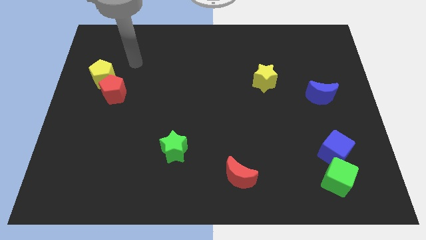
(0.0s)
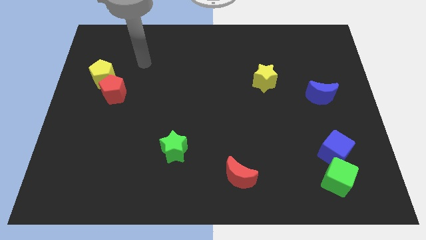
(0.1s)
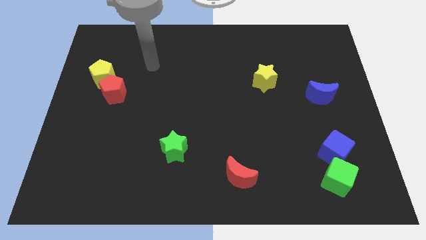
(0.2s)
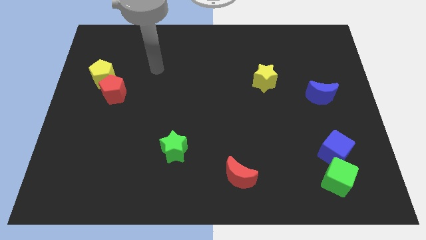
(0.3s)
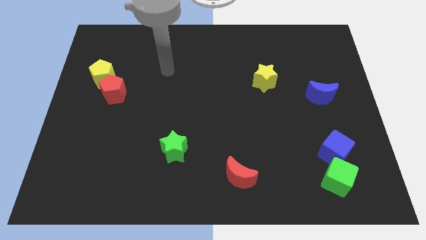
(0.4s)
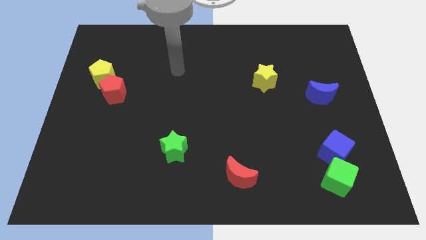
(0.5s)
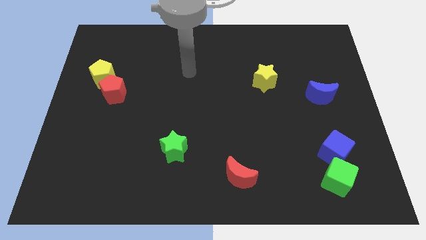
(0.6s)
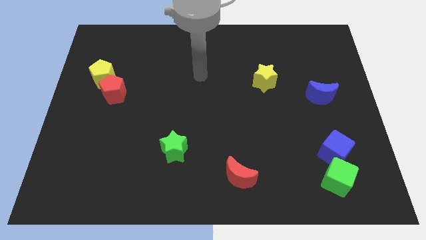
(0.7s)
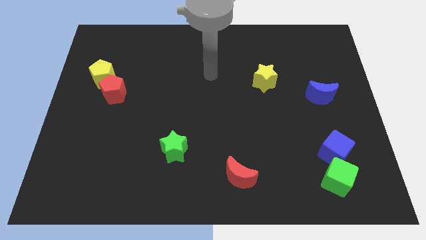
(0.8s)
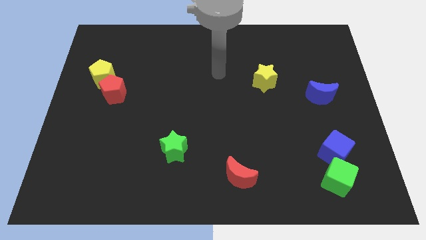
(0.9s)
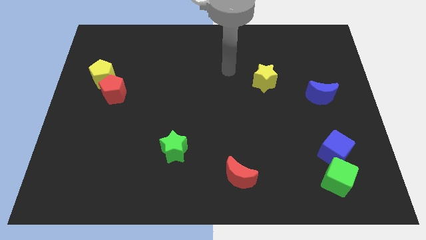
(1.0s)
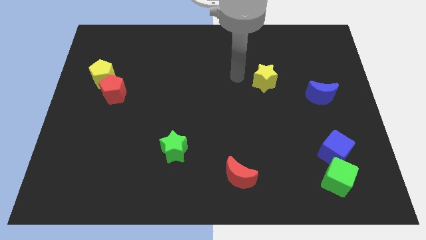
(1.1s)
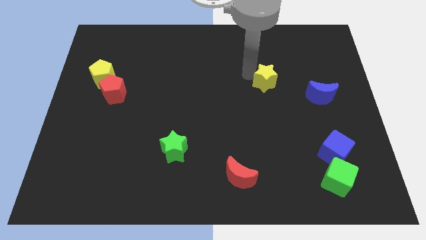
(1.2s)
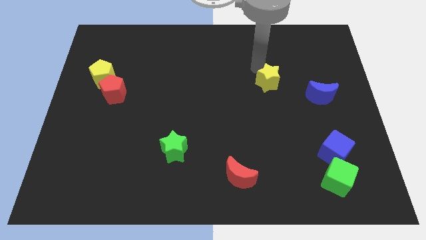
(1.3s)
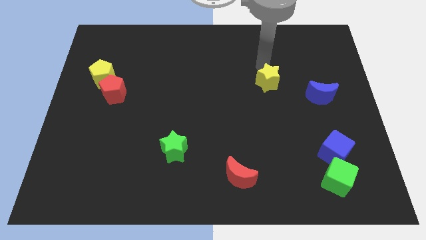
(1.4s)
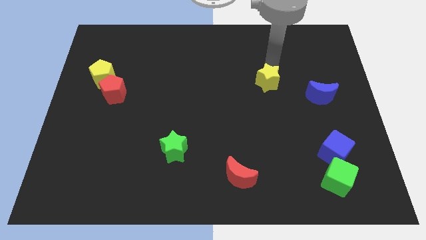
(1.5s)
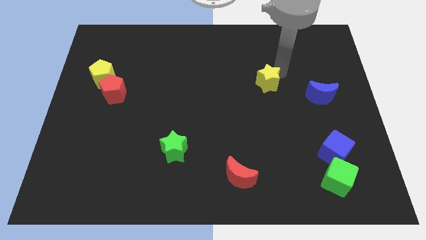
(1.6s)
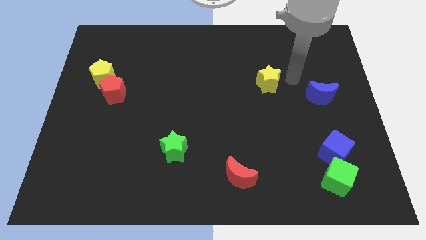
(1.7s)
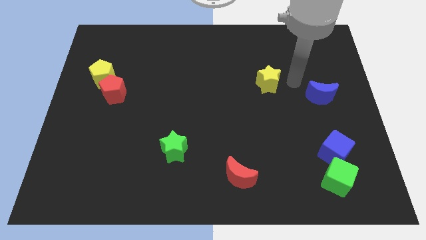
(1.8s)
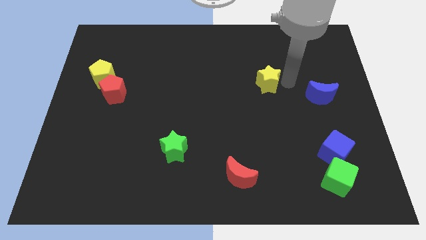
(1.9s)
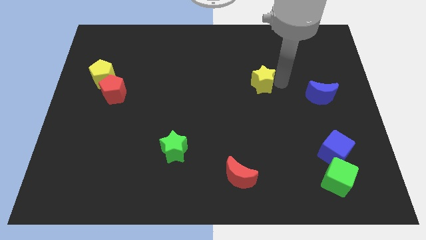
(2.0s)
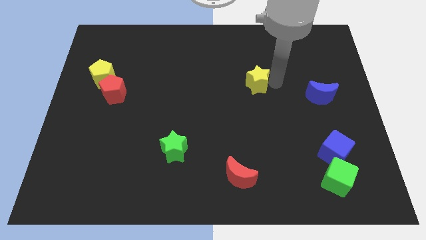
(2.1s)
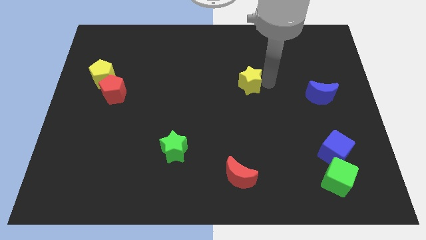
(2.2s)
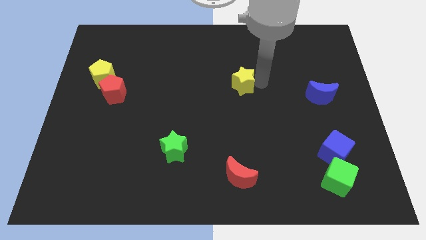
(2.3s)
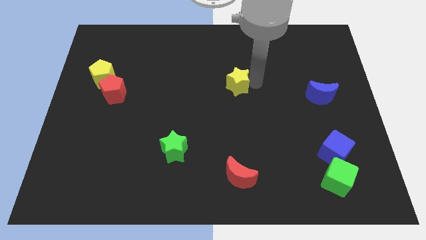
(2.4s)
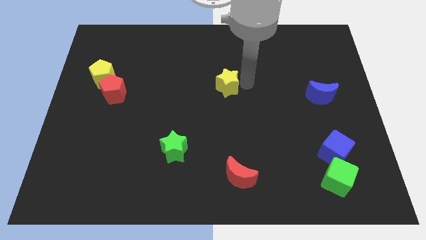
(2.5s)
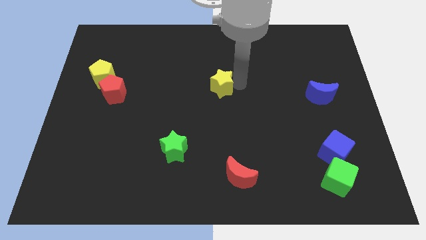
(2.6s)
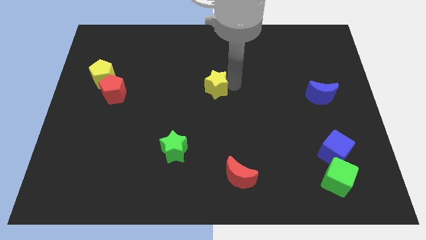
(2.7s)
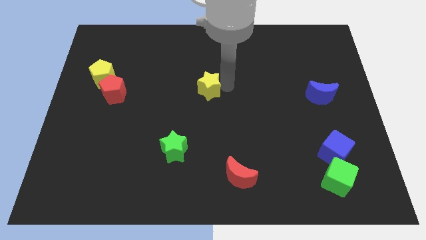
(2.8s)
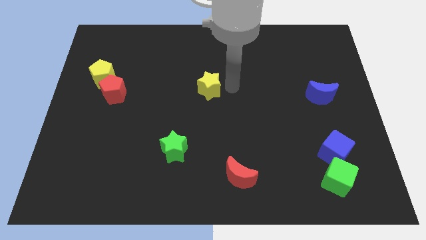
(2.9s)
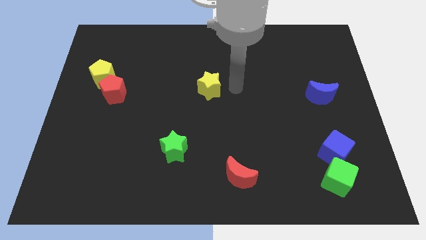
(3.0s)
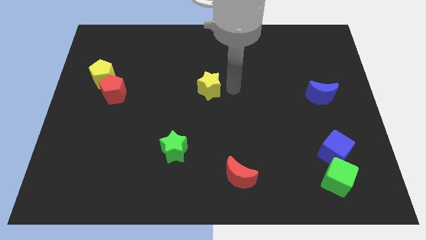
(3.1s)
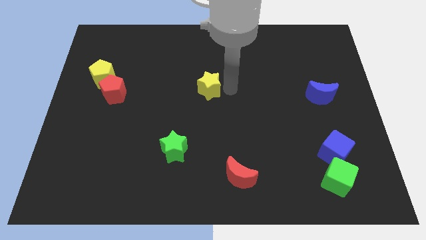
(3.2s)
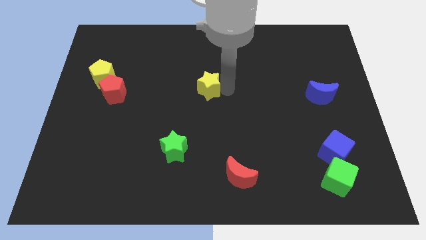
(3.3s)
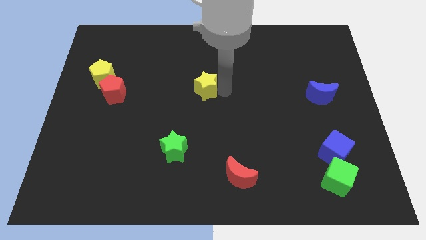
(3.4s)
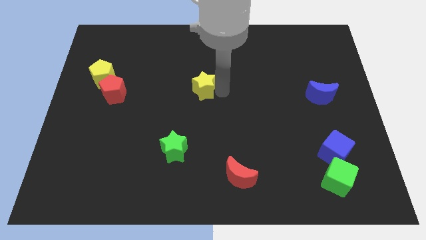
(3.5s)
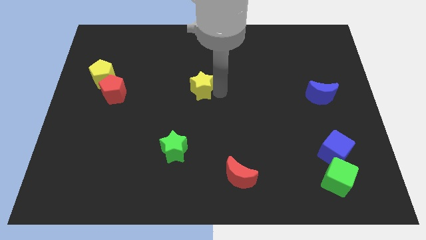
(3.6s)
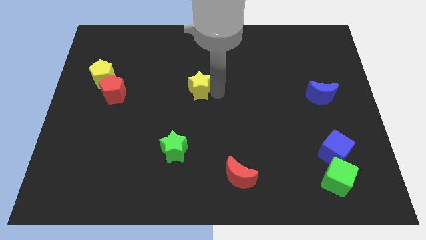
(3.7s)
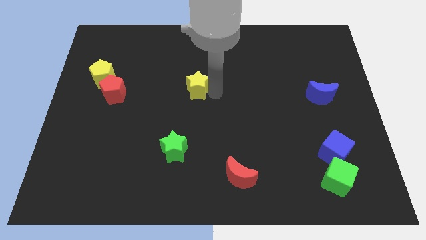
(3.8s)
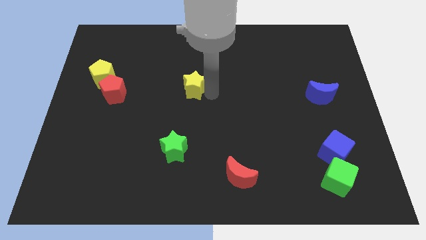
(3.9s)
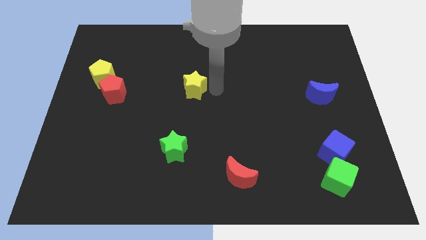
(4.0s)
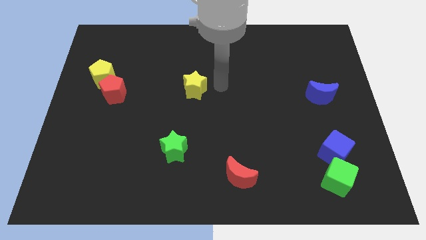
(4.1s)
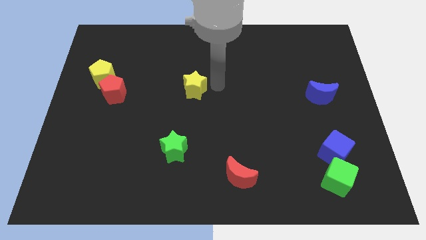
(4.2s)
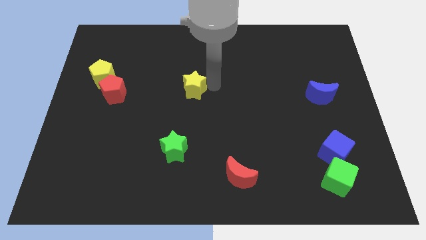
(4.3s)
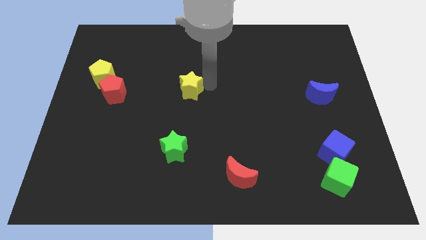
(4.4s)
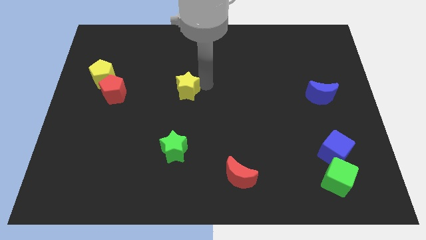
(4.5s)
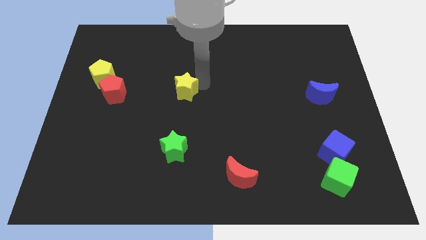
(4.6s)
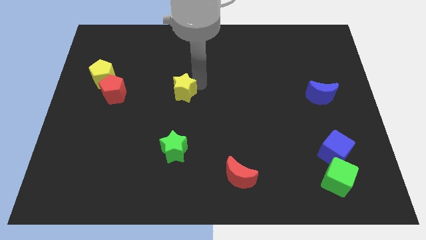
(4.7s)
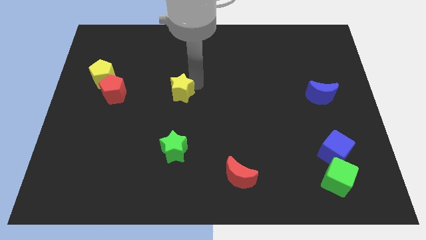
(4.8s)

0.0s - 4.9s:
push the yellow star to the right side of the red pentagon

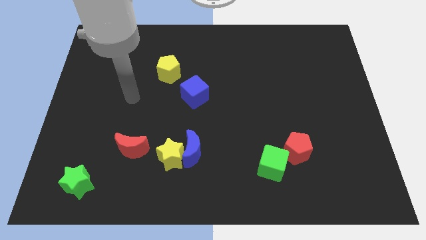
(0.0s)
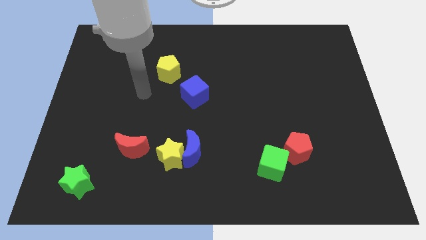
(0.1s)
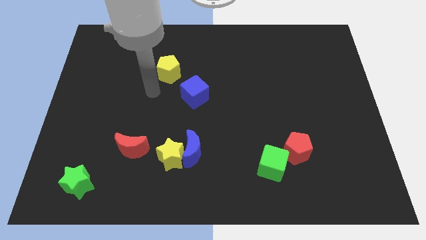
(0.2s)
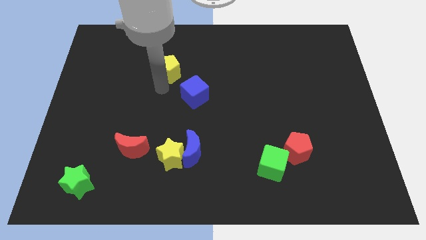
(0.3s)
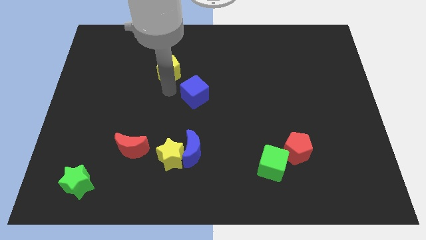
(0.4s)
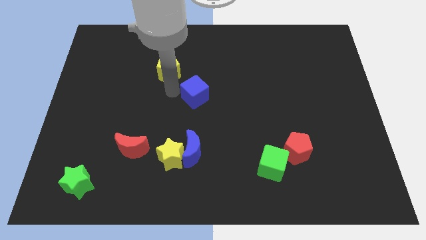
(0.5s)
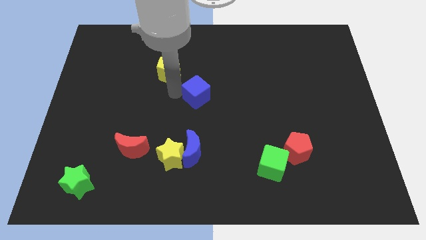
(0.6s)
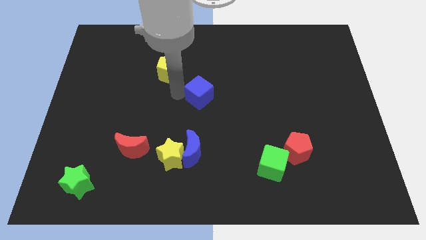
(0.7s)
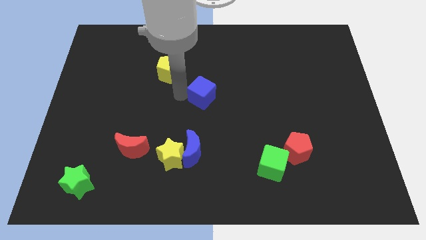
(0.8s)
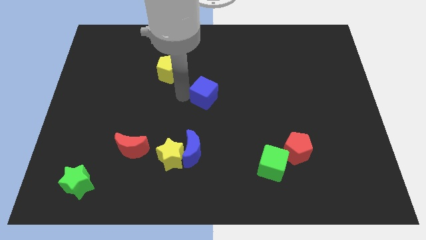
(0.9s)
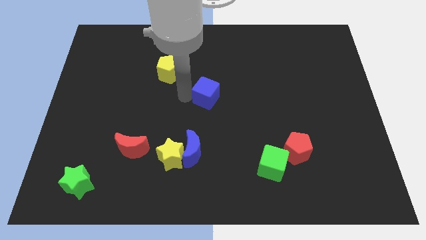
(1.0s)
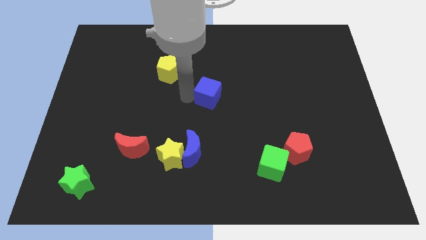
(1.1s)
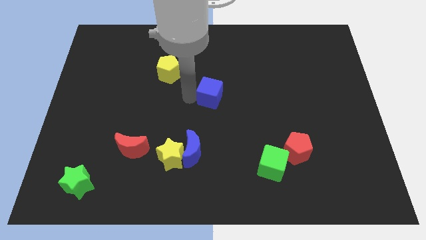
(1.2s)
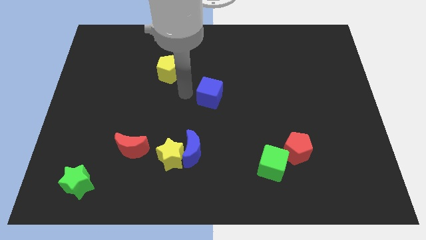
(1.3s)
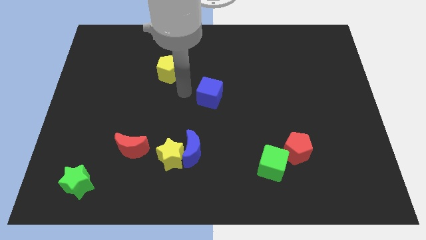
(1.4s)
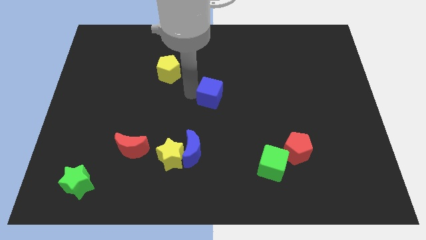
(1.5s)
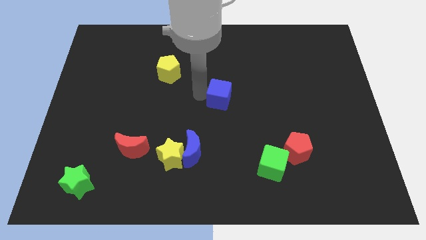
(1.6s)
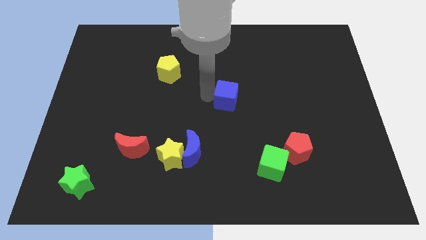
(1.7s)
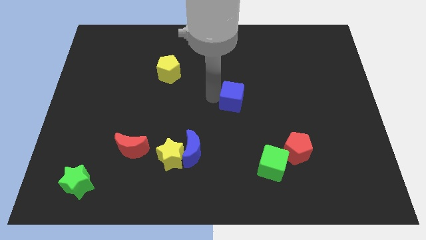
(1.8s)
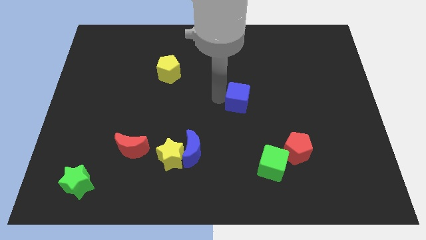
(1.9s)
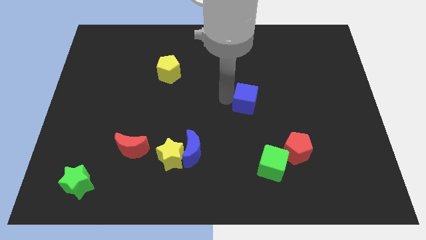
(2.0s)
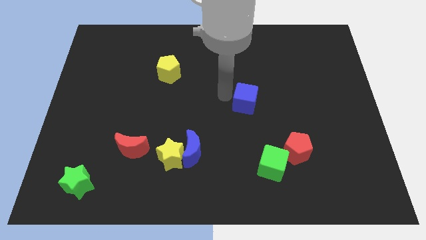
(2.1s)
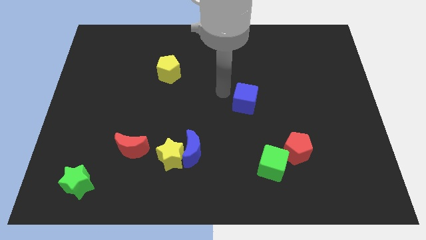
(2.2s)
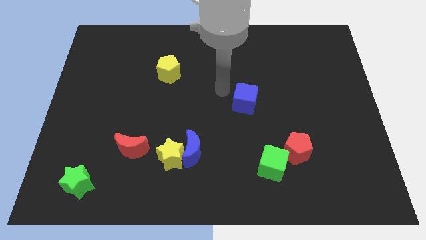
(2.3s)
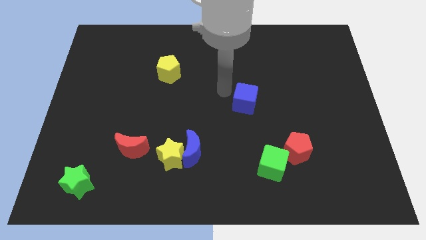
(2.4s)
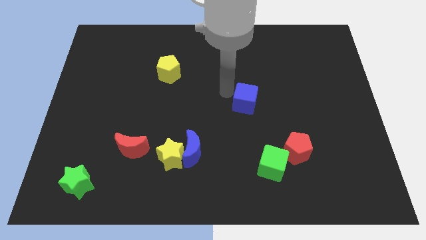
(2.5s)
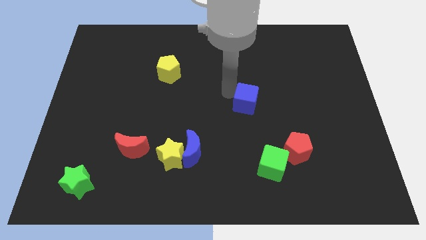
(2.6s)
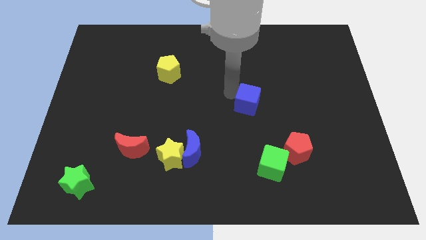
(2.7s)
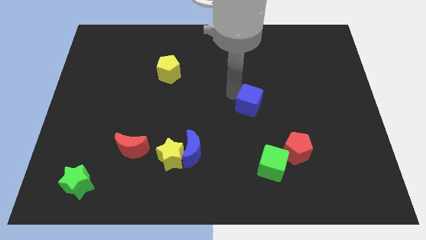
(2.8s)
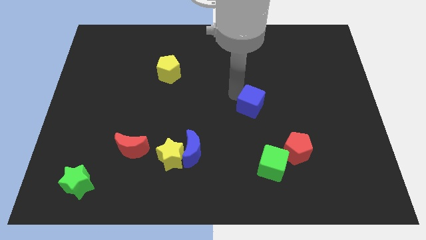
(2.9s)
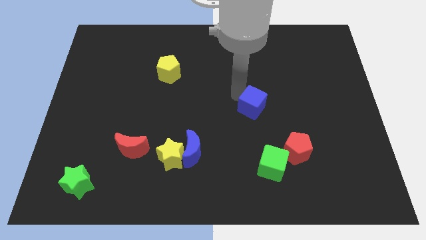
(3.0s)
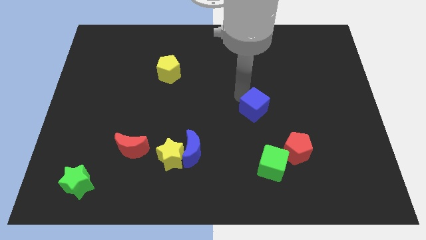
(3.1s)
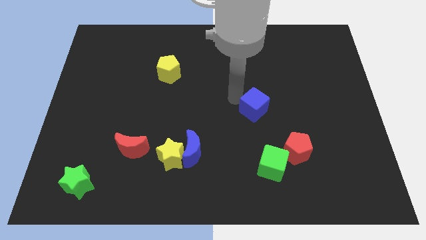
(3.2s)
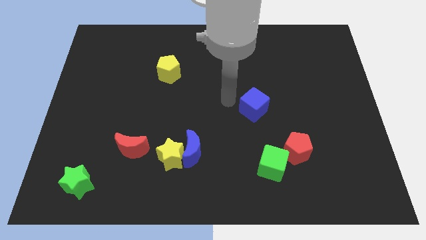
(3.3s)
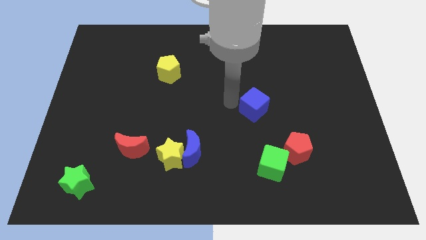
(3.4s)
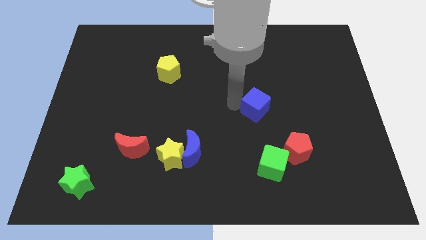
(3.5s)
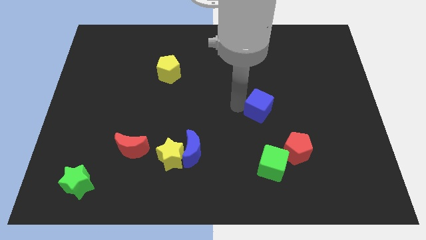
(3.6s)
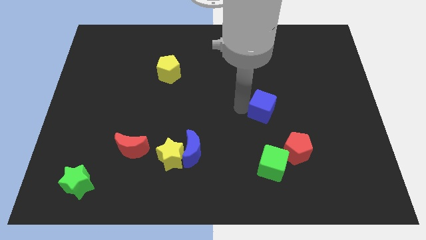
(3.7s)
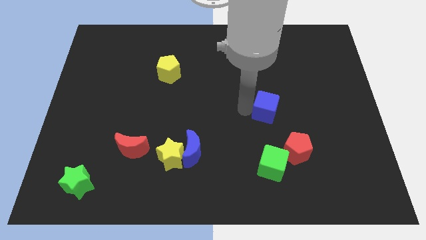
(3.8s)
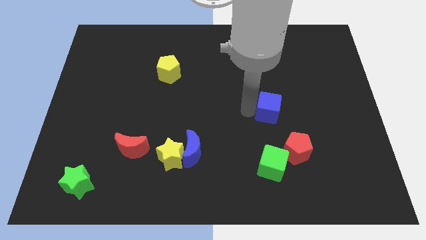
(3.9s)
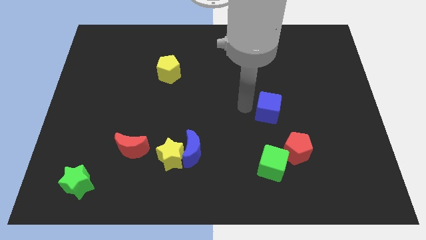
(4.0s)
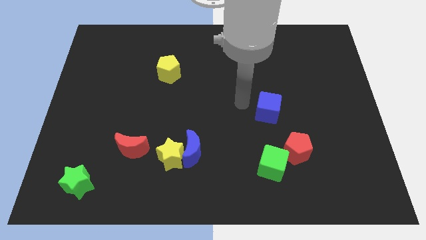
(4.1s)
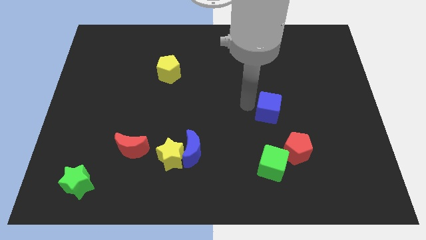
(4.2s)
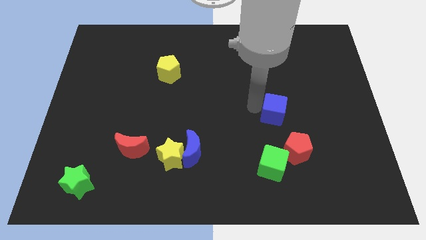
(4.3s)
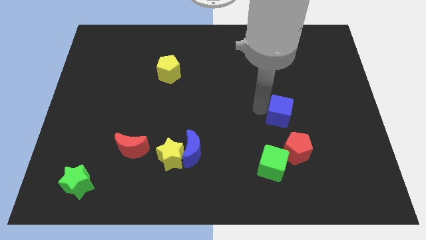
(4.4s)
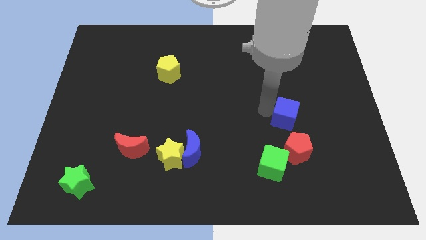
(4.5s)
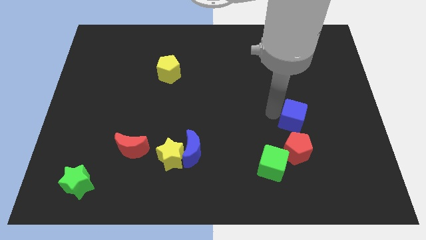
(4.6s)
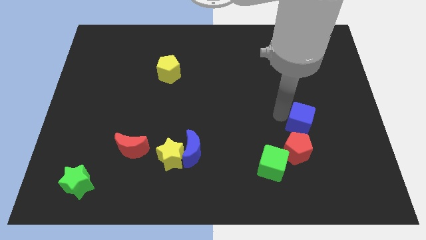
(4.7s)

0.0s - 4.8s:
slide the blue cube to the top right side of the red pentagon
